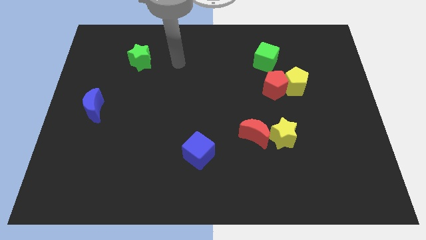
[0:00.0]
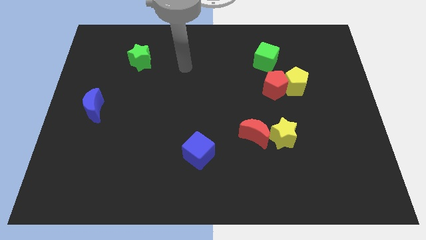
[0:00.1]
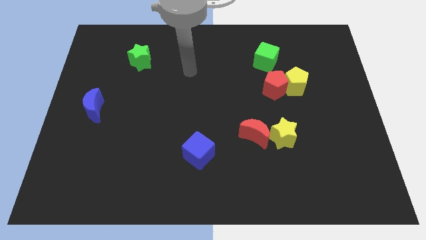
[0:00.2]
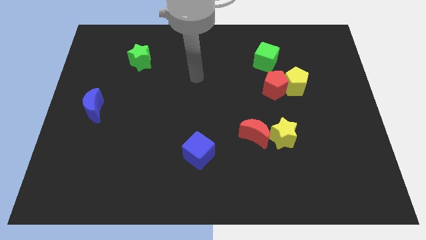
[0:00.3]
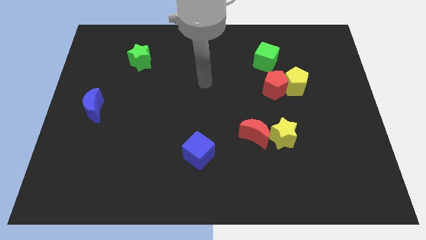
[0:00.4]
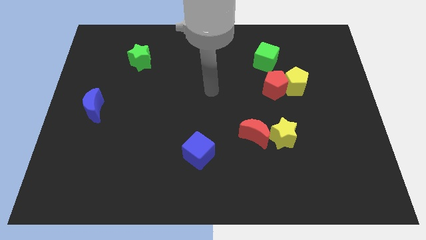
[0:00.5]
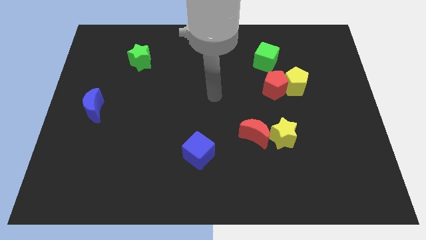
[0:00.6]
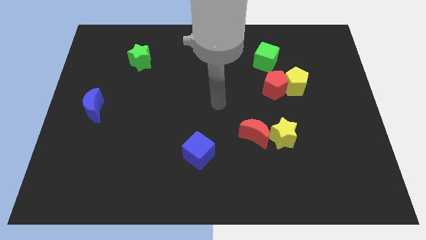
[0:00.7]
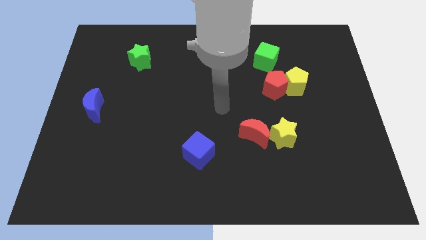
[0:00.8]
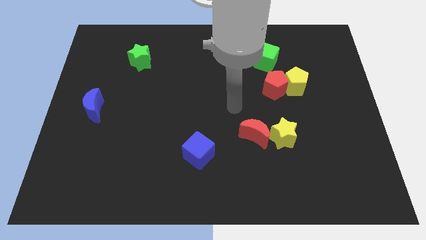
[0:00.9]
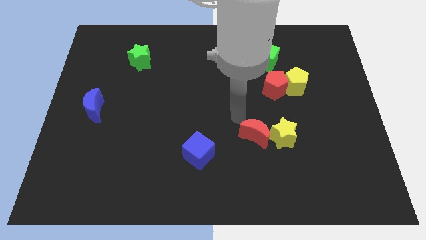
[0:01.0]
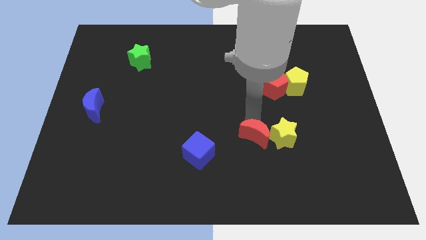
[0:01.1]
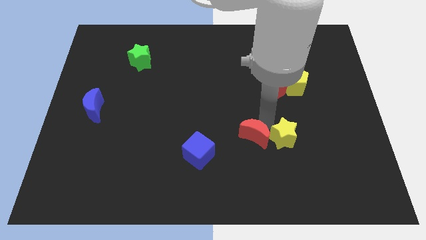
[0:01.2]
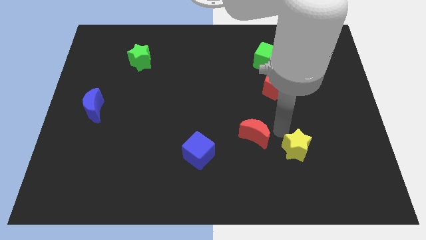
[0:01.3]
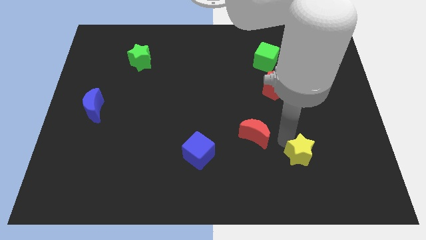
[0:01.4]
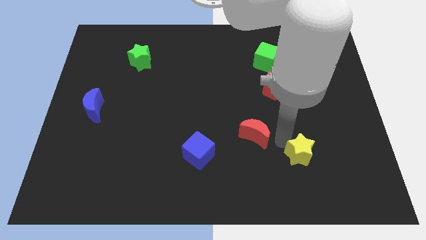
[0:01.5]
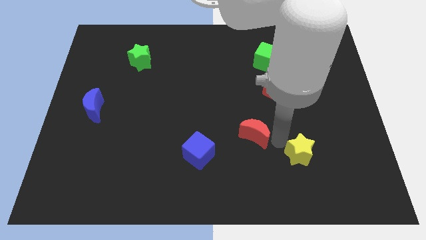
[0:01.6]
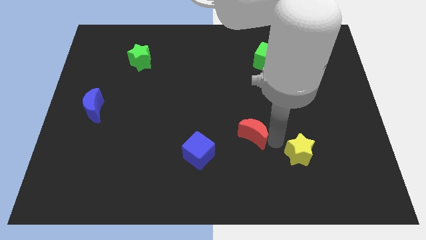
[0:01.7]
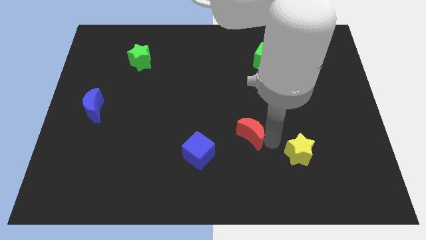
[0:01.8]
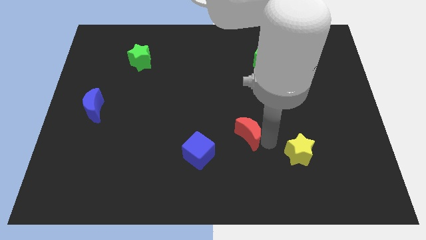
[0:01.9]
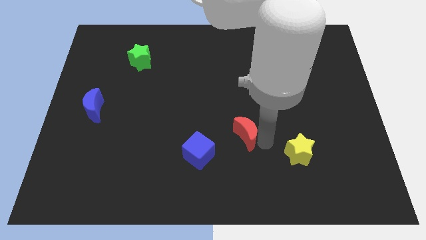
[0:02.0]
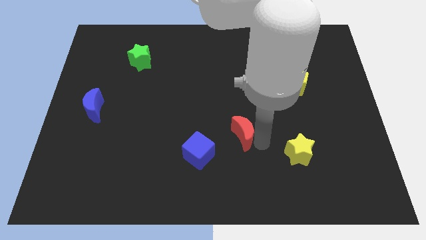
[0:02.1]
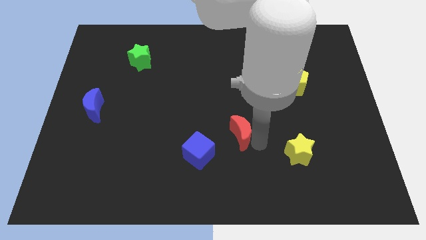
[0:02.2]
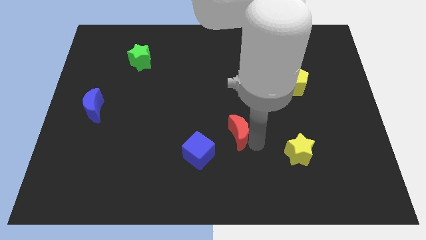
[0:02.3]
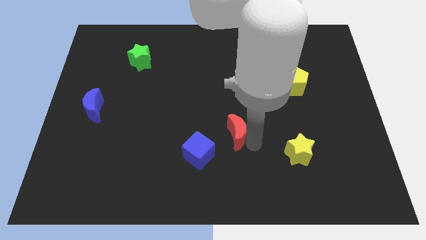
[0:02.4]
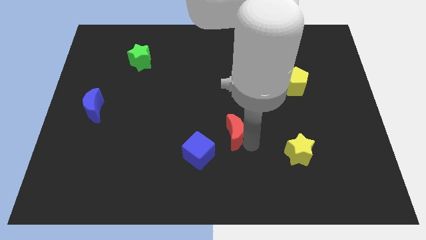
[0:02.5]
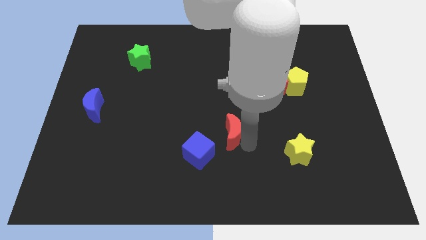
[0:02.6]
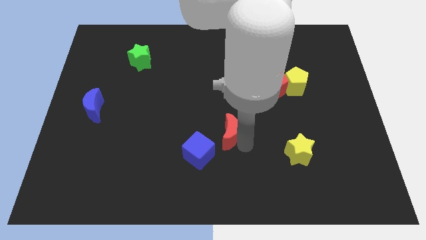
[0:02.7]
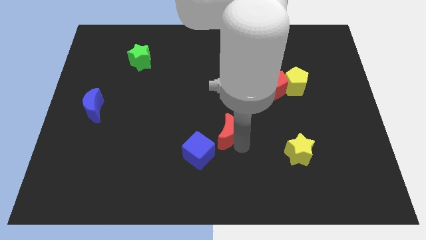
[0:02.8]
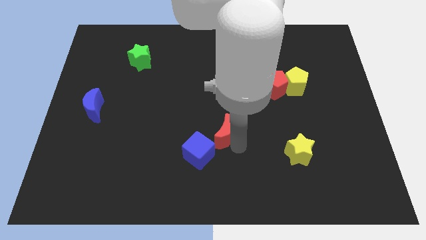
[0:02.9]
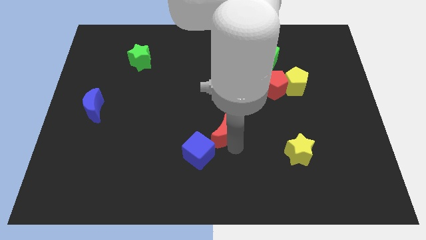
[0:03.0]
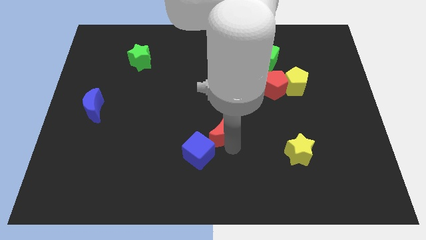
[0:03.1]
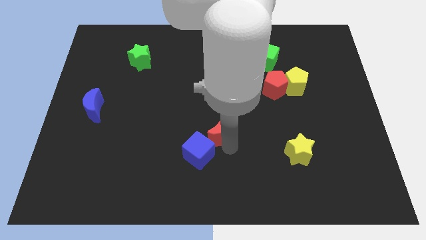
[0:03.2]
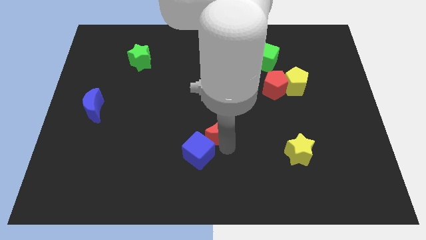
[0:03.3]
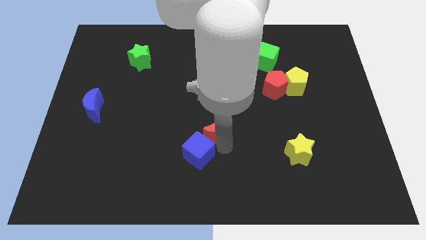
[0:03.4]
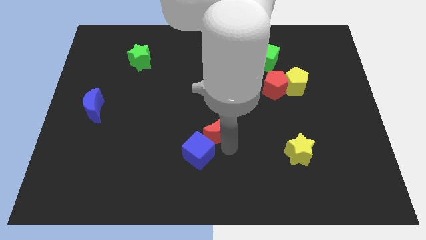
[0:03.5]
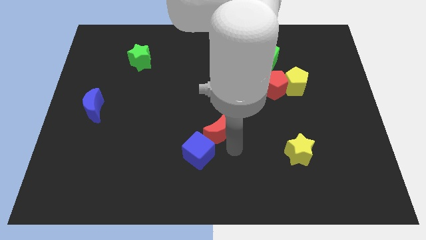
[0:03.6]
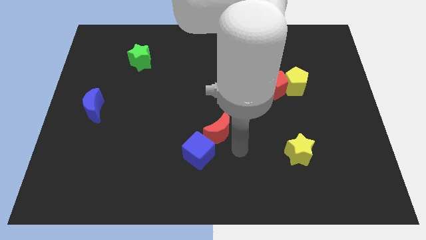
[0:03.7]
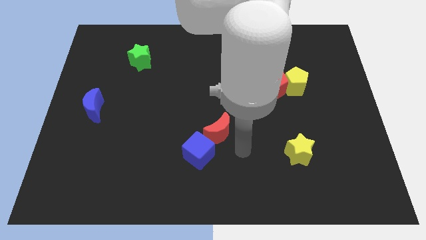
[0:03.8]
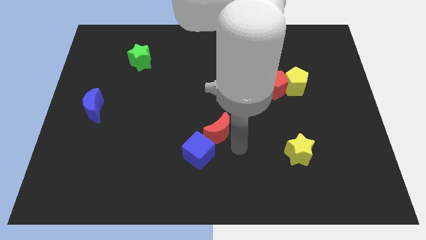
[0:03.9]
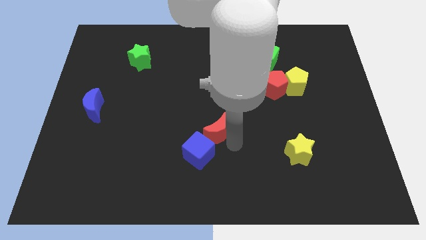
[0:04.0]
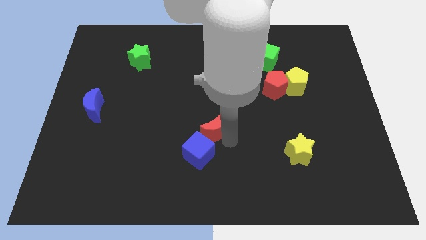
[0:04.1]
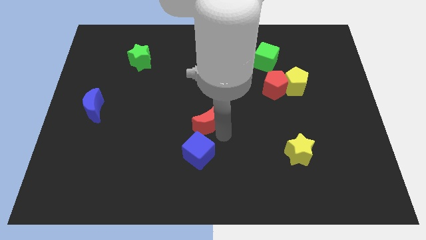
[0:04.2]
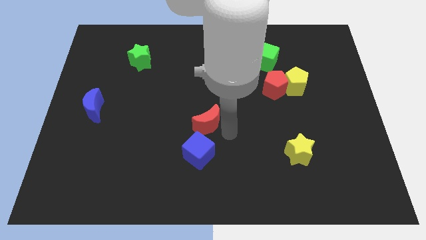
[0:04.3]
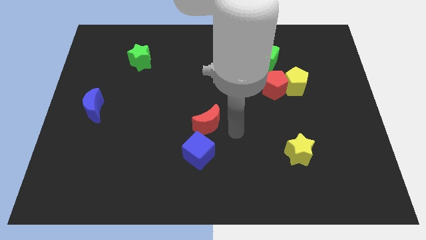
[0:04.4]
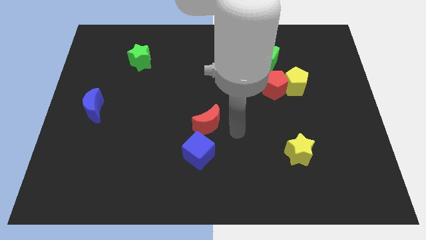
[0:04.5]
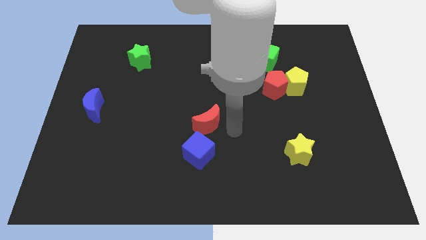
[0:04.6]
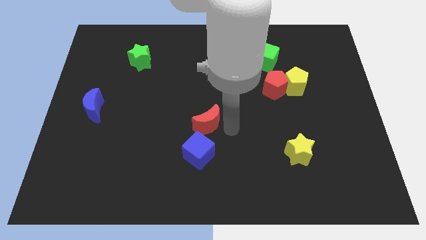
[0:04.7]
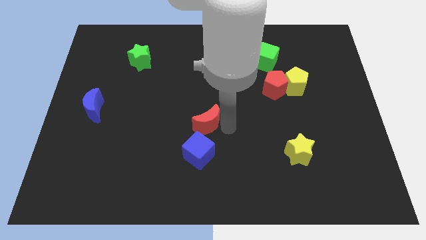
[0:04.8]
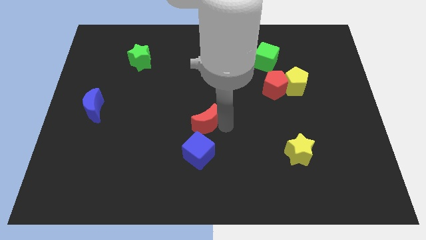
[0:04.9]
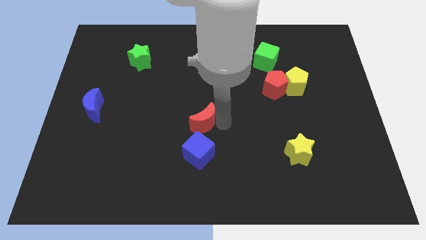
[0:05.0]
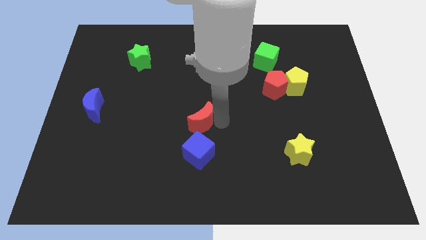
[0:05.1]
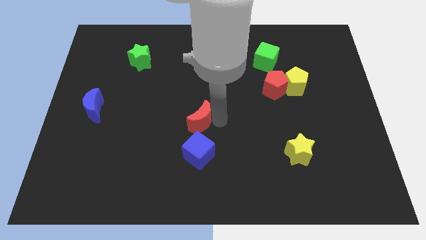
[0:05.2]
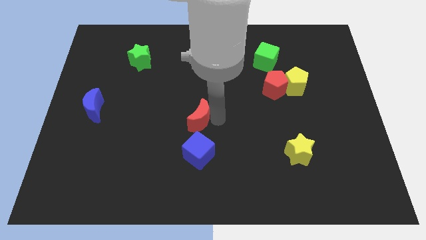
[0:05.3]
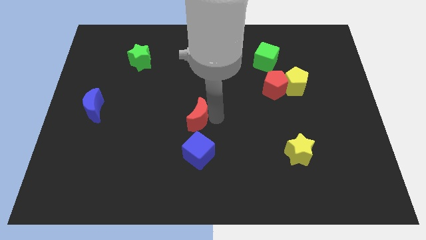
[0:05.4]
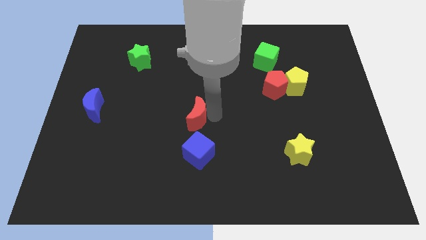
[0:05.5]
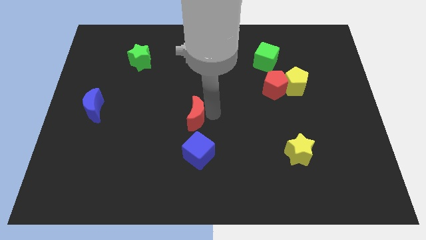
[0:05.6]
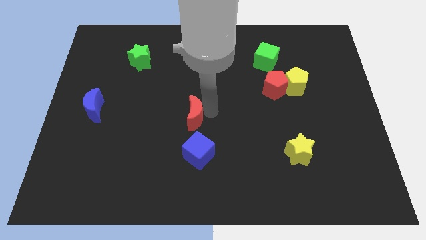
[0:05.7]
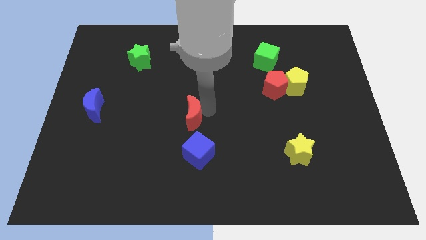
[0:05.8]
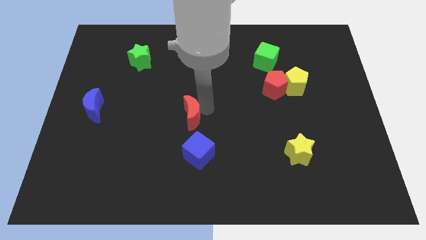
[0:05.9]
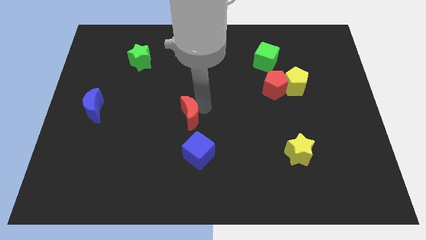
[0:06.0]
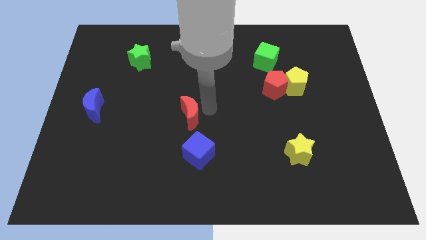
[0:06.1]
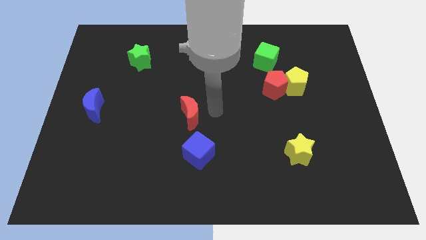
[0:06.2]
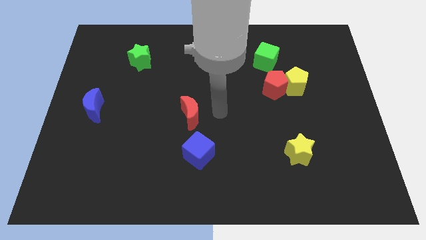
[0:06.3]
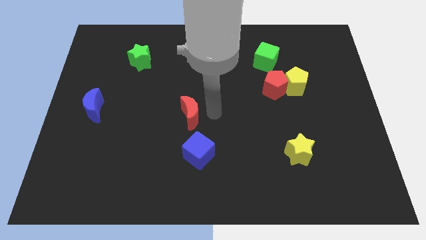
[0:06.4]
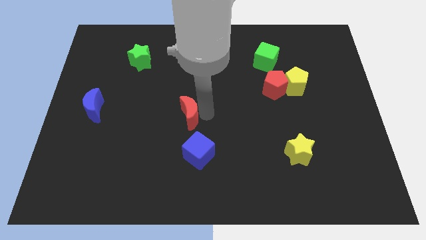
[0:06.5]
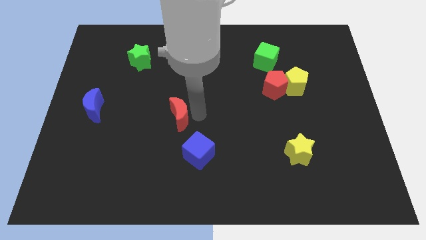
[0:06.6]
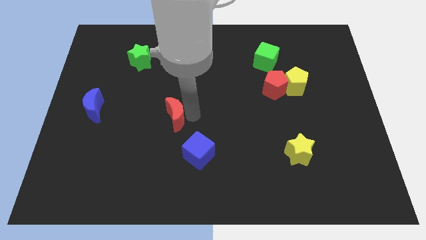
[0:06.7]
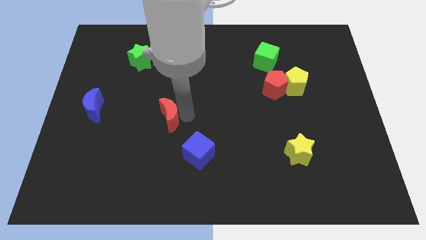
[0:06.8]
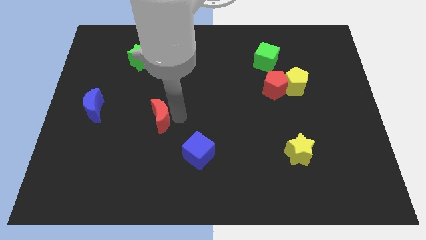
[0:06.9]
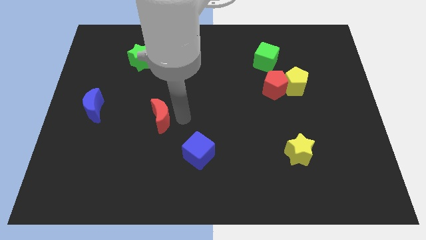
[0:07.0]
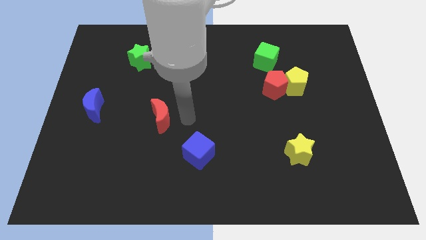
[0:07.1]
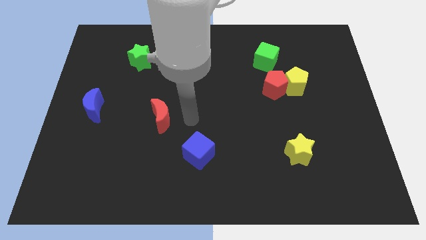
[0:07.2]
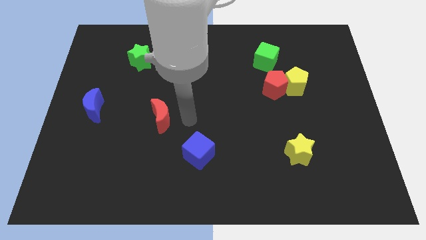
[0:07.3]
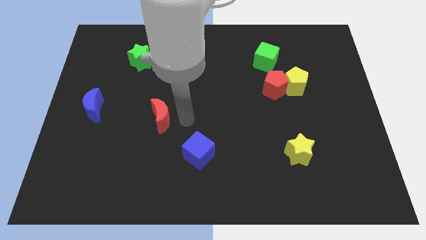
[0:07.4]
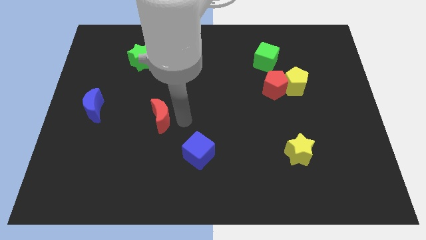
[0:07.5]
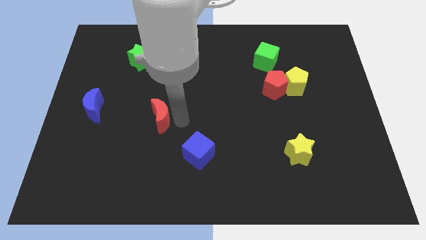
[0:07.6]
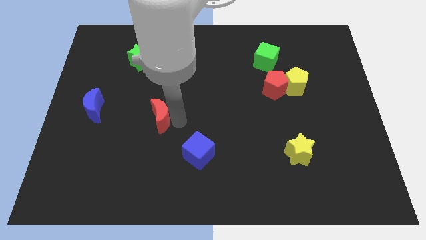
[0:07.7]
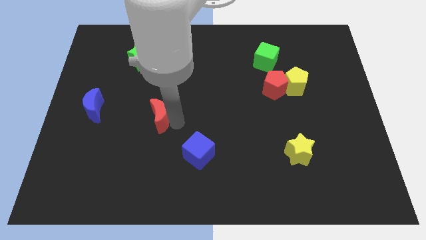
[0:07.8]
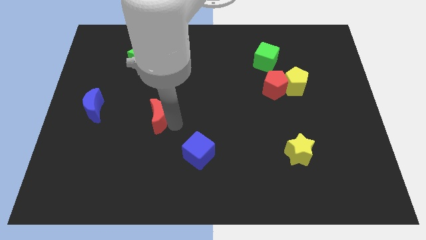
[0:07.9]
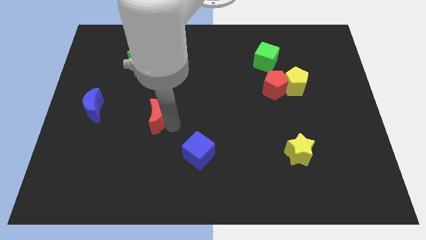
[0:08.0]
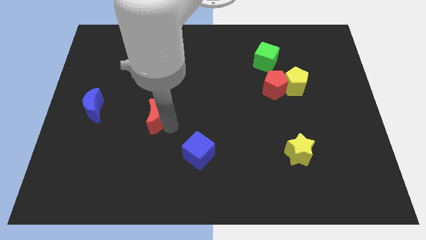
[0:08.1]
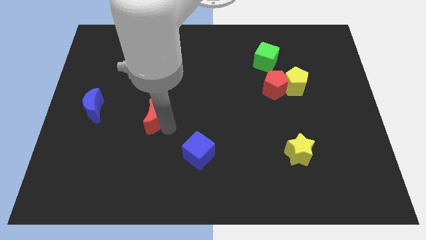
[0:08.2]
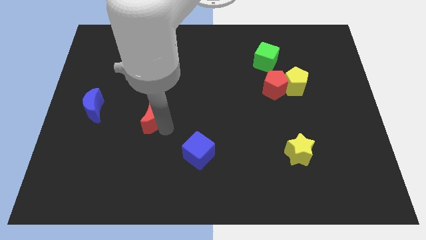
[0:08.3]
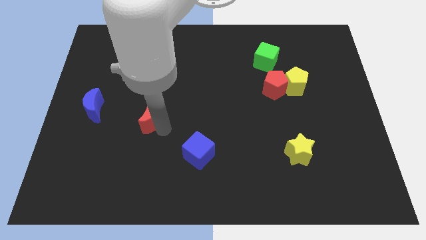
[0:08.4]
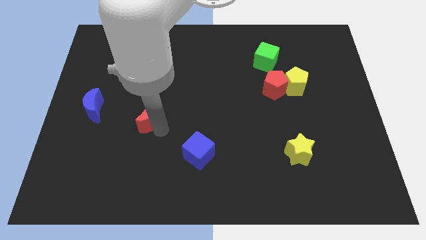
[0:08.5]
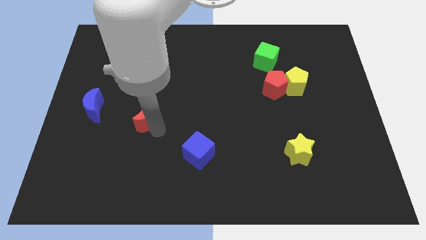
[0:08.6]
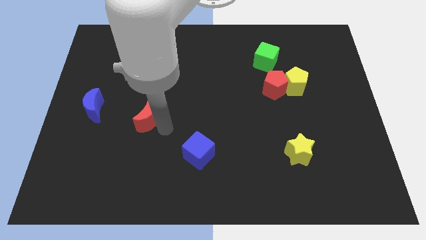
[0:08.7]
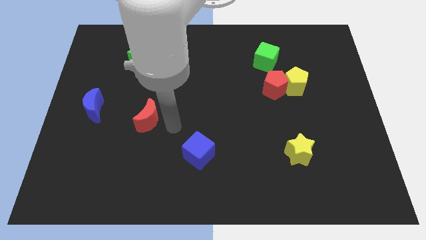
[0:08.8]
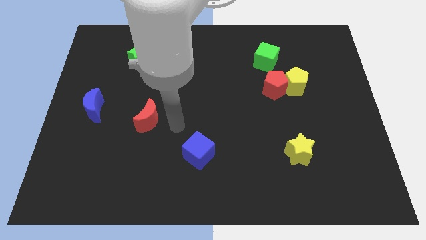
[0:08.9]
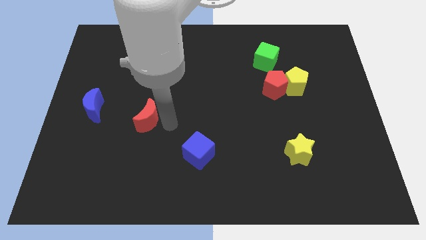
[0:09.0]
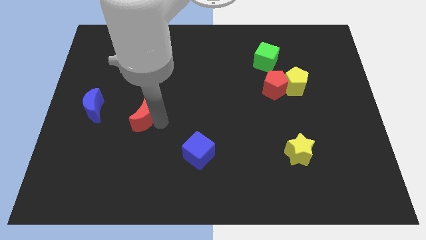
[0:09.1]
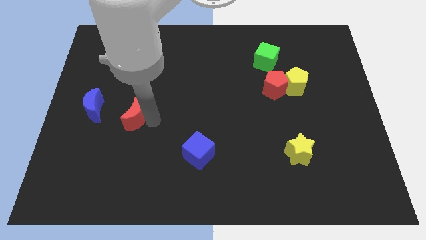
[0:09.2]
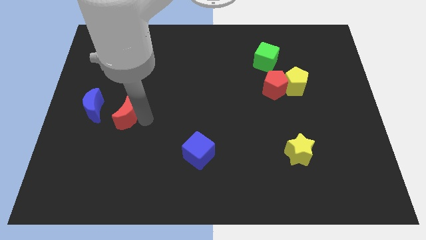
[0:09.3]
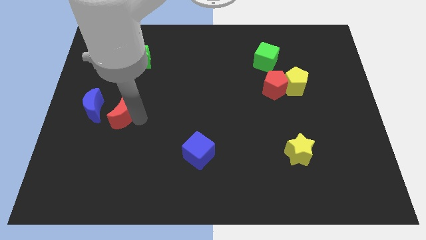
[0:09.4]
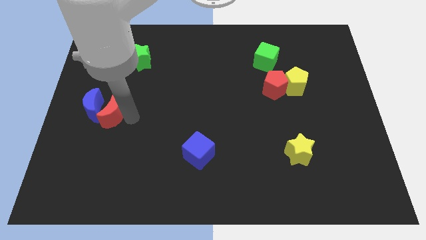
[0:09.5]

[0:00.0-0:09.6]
slide the red moon towards the blue moon
